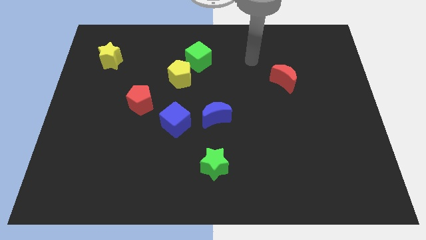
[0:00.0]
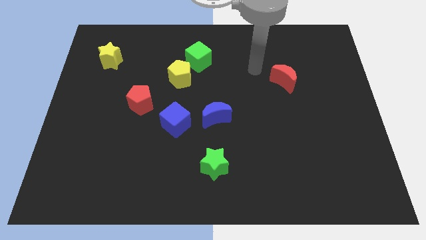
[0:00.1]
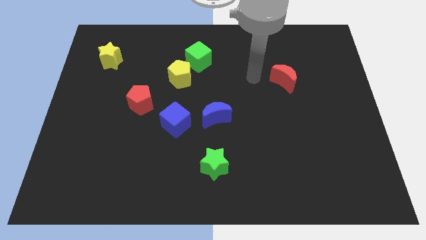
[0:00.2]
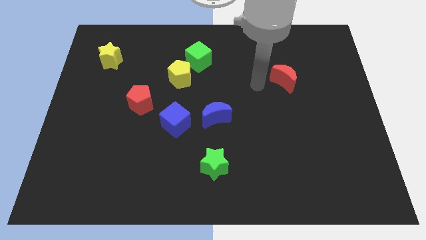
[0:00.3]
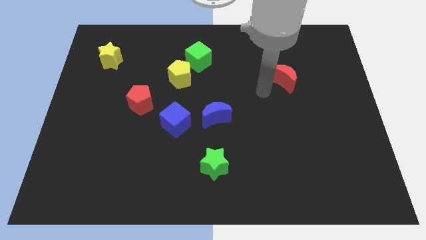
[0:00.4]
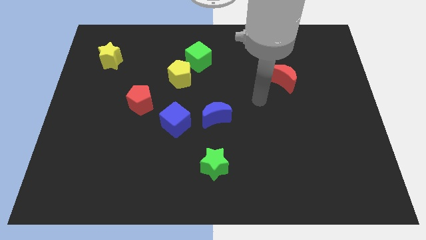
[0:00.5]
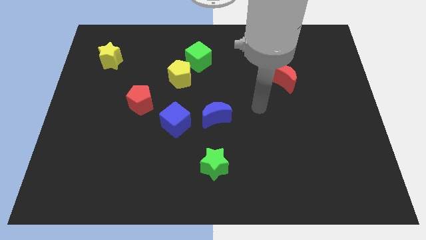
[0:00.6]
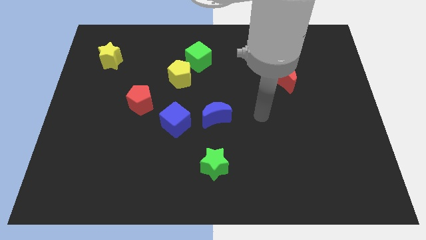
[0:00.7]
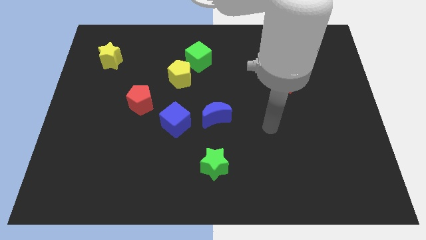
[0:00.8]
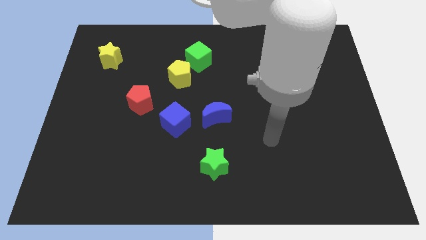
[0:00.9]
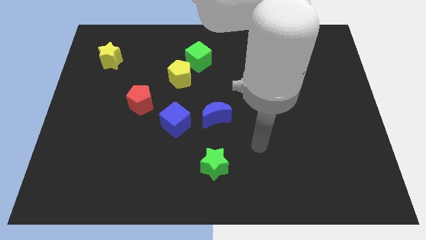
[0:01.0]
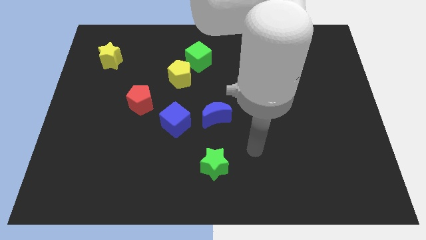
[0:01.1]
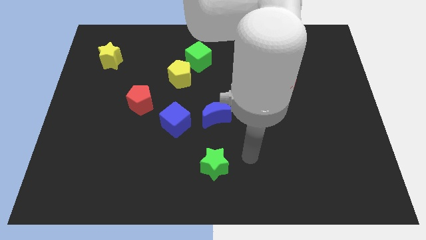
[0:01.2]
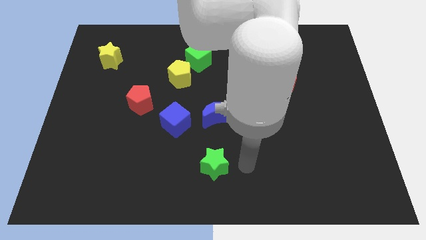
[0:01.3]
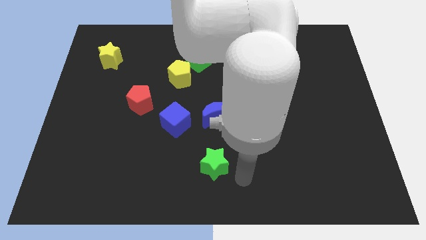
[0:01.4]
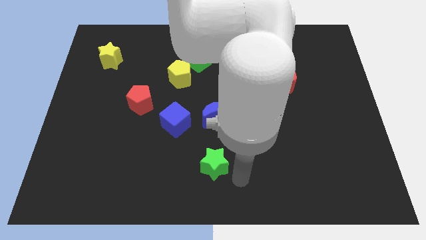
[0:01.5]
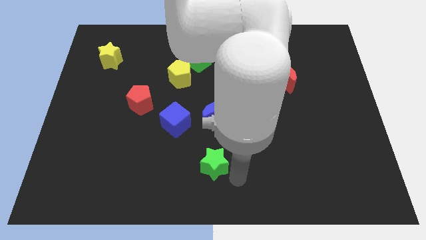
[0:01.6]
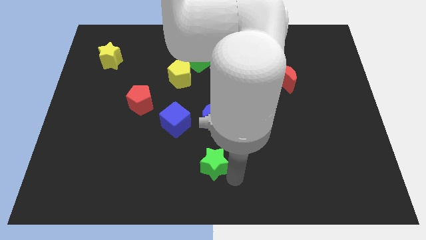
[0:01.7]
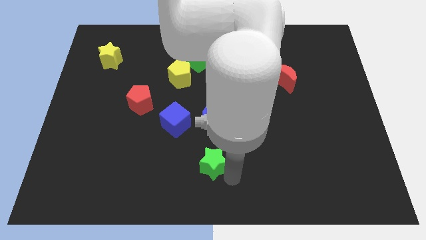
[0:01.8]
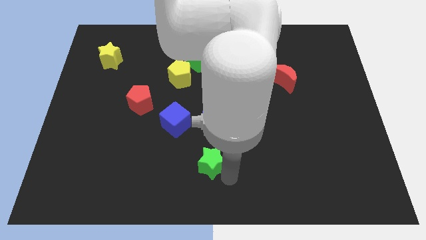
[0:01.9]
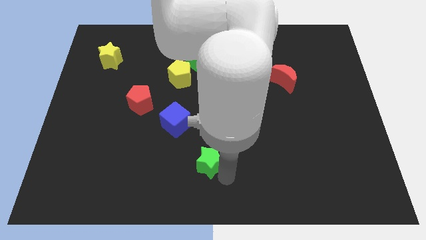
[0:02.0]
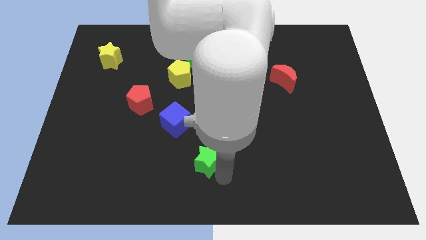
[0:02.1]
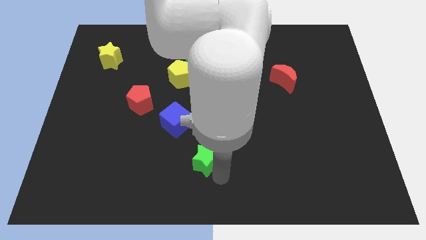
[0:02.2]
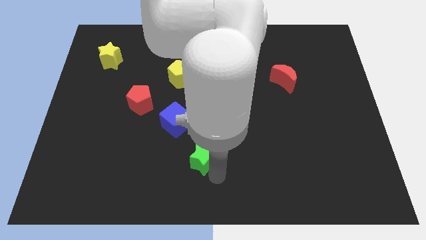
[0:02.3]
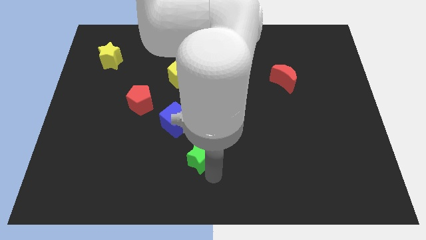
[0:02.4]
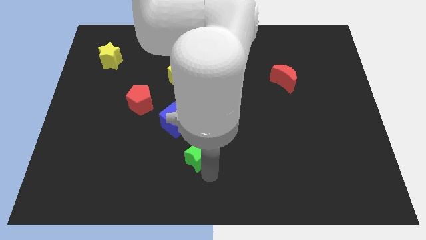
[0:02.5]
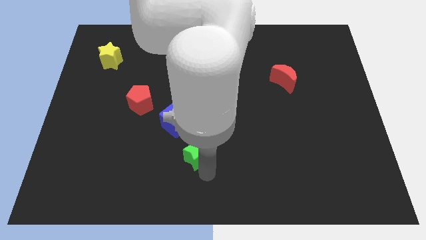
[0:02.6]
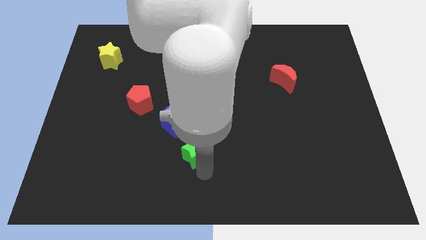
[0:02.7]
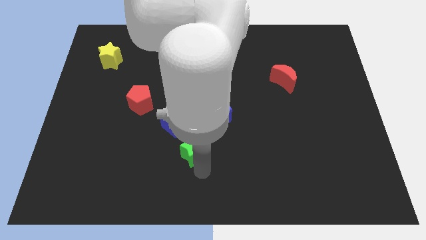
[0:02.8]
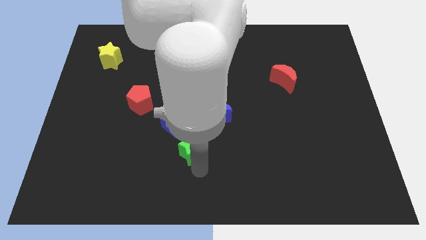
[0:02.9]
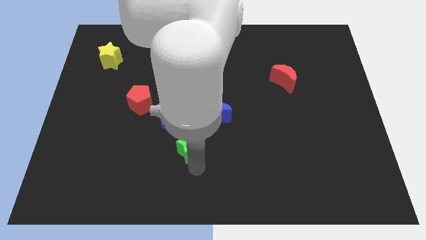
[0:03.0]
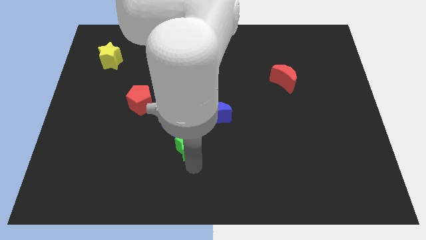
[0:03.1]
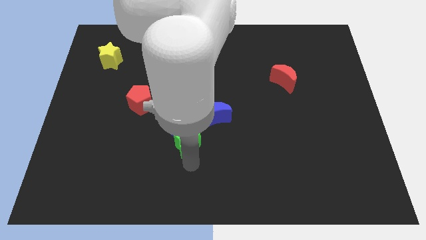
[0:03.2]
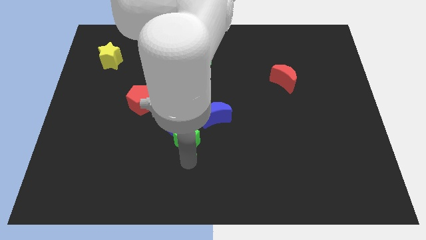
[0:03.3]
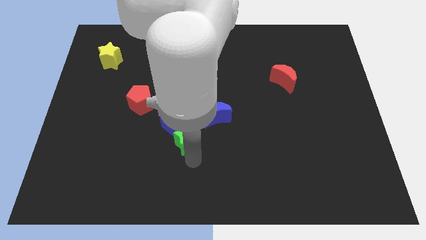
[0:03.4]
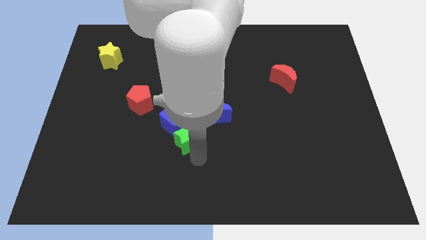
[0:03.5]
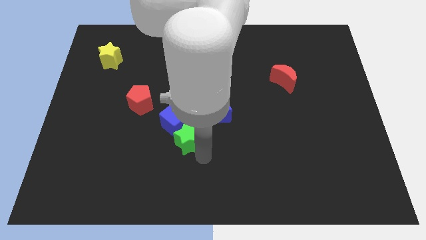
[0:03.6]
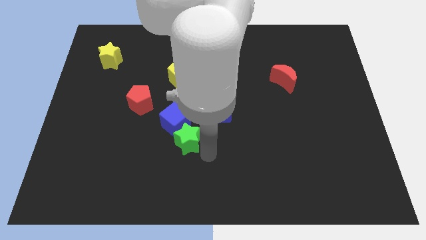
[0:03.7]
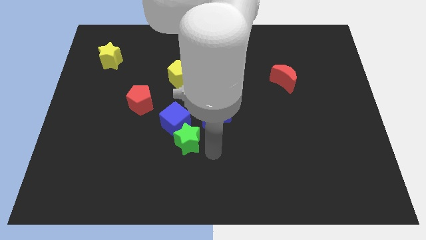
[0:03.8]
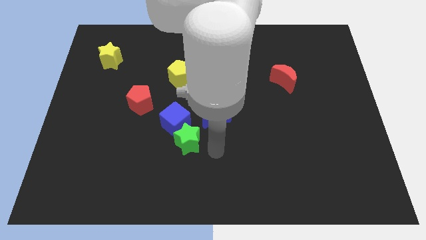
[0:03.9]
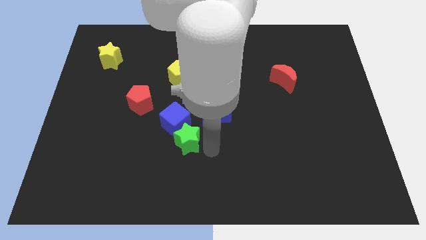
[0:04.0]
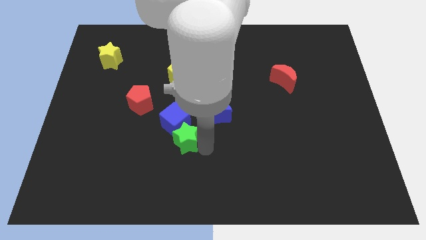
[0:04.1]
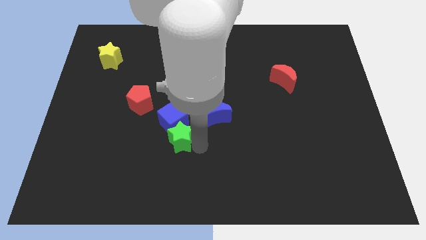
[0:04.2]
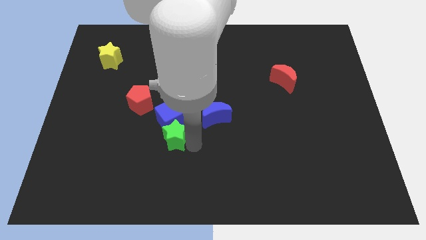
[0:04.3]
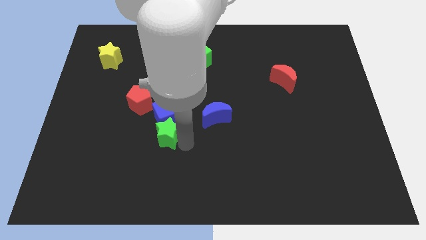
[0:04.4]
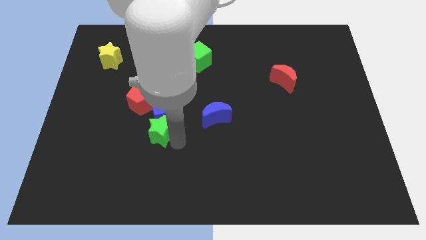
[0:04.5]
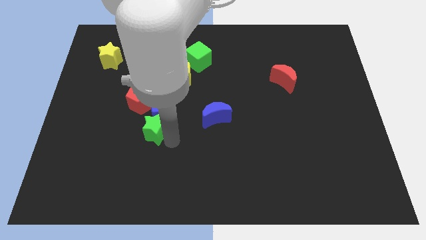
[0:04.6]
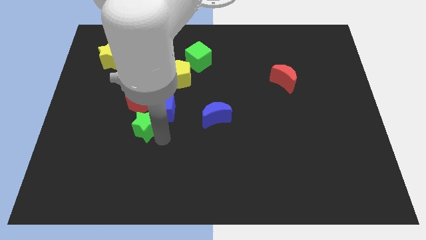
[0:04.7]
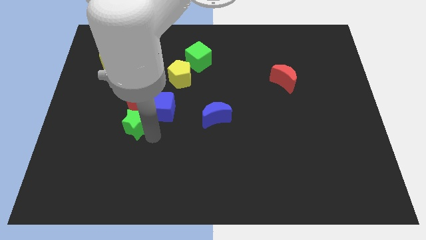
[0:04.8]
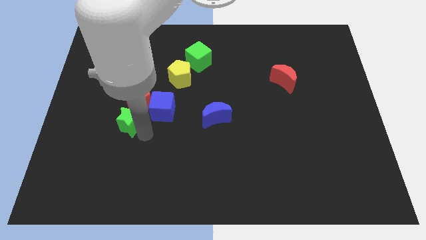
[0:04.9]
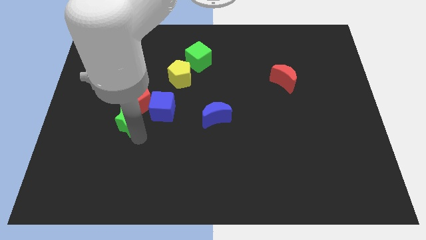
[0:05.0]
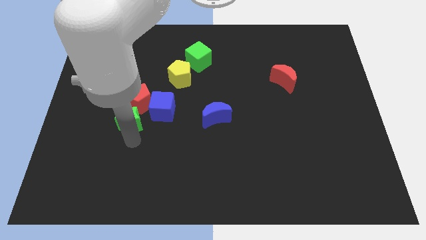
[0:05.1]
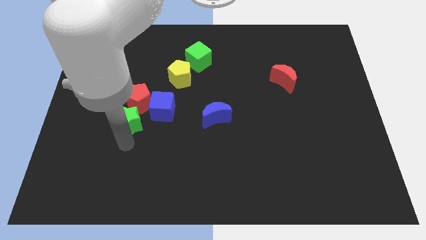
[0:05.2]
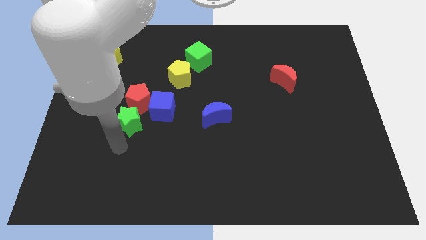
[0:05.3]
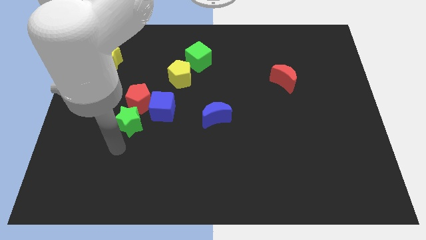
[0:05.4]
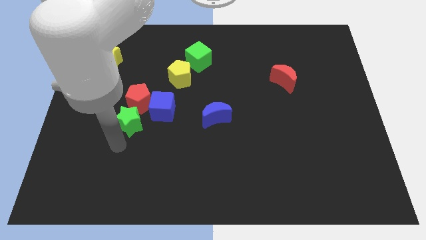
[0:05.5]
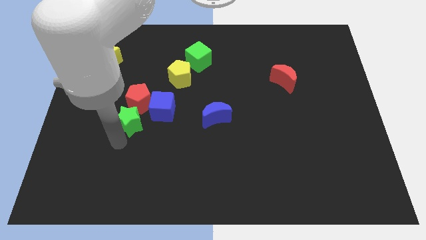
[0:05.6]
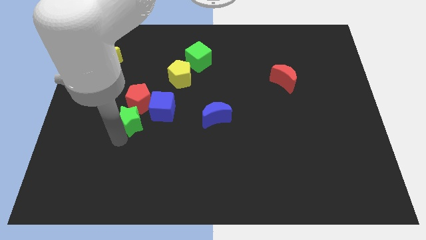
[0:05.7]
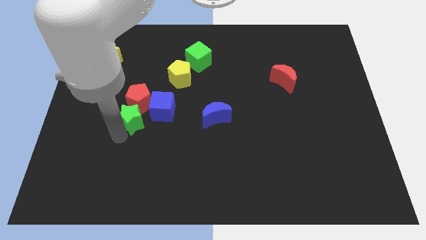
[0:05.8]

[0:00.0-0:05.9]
put the green star close to the red pentagon

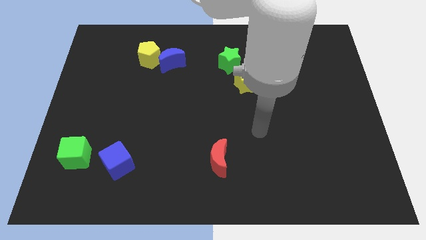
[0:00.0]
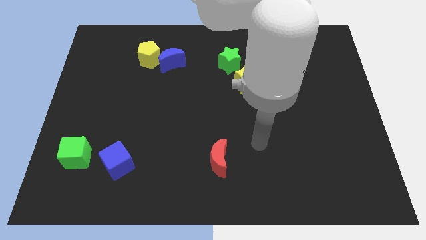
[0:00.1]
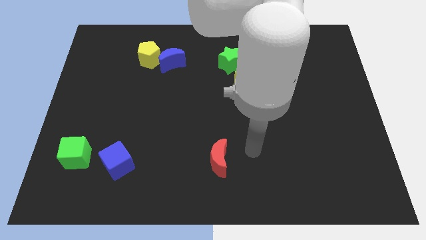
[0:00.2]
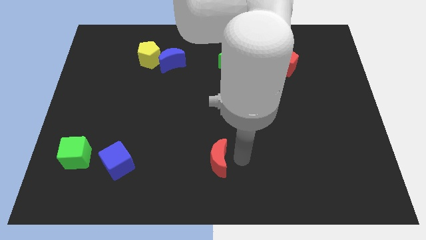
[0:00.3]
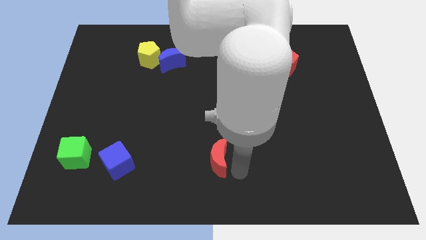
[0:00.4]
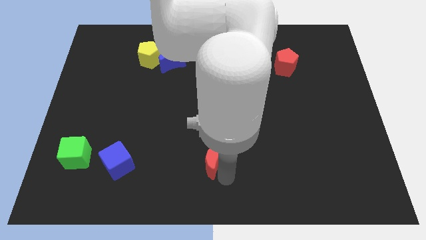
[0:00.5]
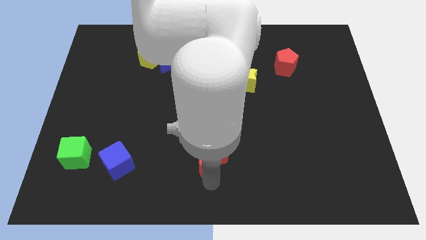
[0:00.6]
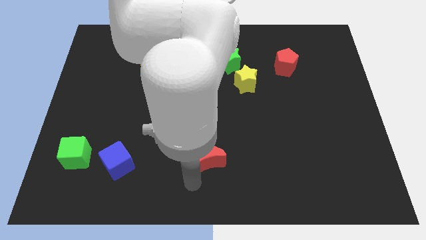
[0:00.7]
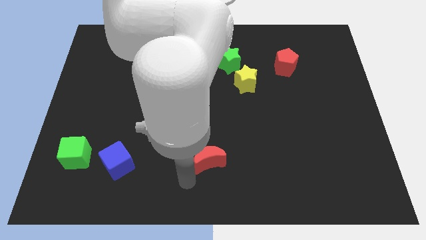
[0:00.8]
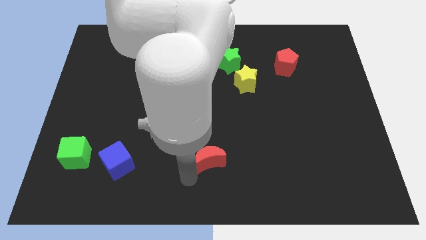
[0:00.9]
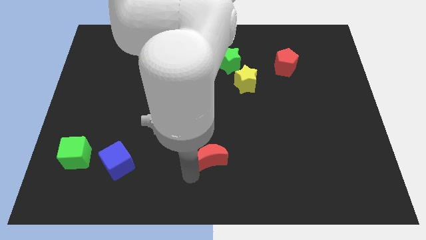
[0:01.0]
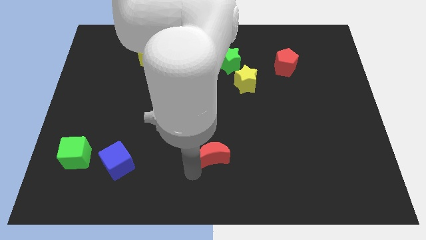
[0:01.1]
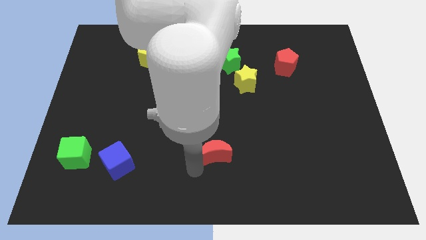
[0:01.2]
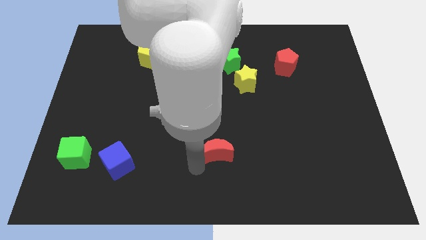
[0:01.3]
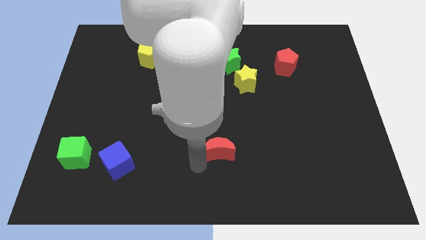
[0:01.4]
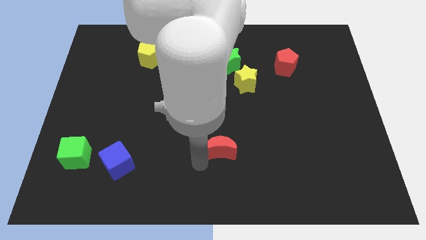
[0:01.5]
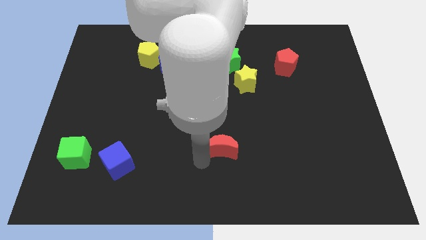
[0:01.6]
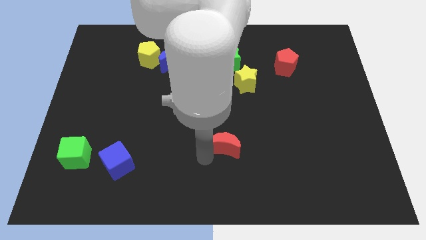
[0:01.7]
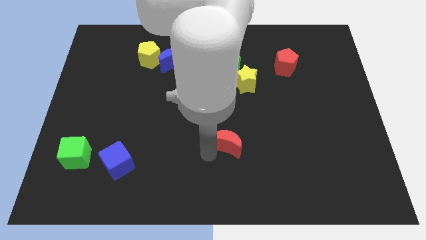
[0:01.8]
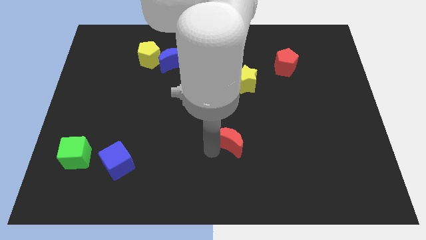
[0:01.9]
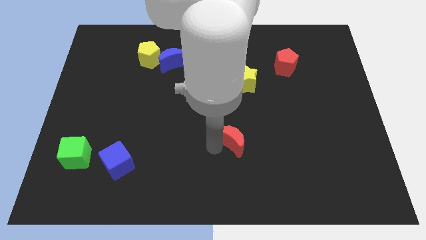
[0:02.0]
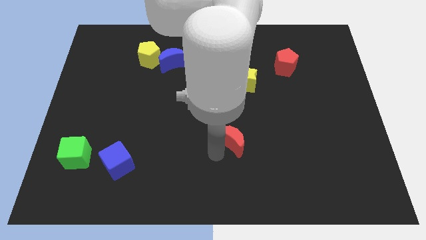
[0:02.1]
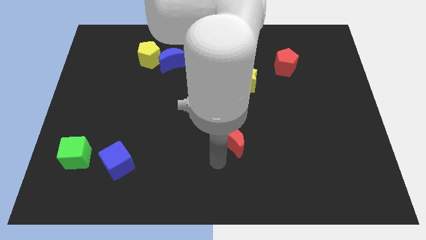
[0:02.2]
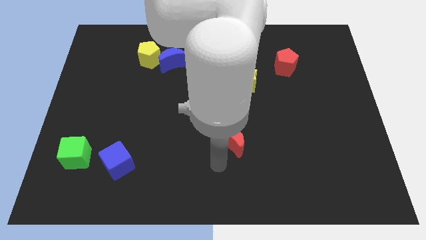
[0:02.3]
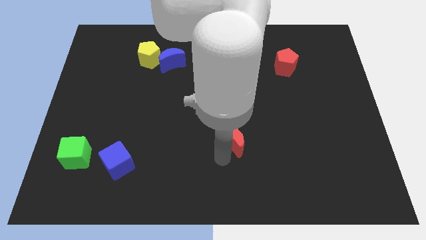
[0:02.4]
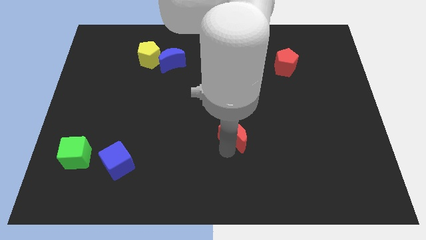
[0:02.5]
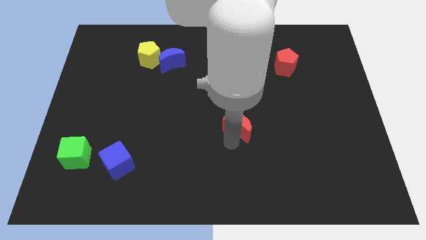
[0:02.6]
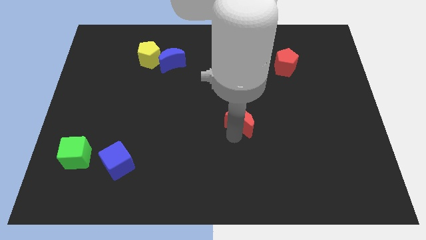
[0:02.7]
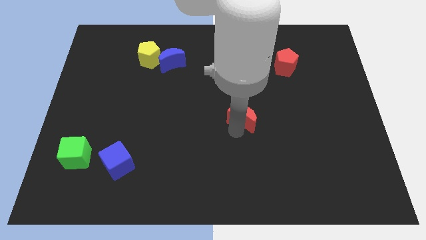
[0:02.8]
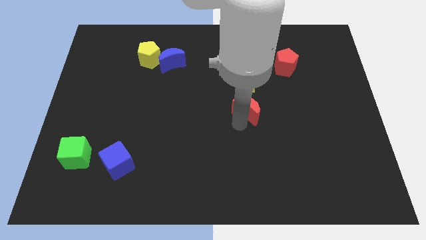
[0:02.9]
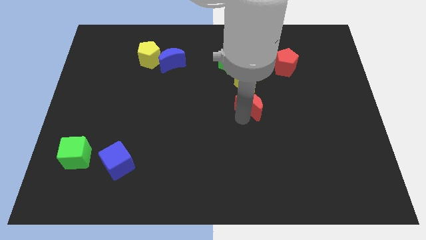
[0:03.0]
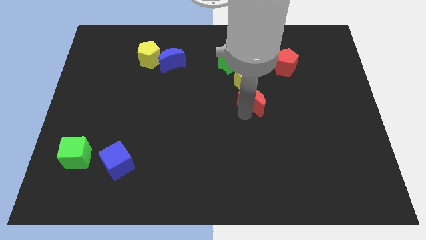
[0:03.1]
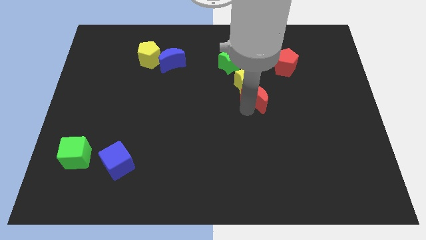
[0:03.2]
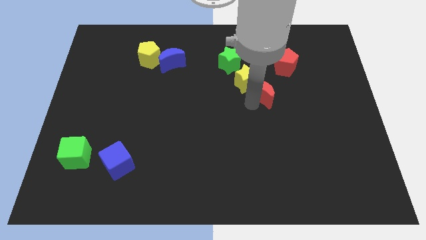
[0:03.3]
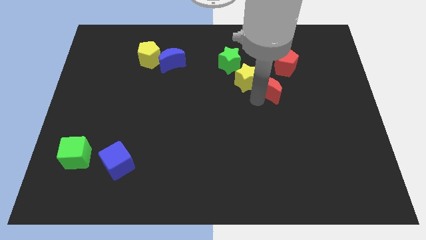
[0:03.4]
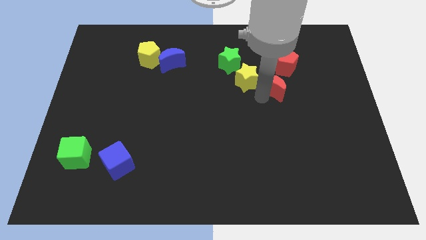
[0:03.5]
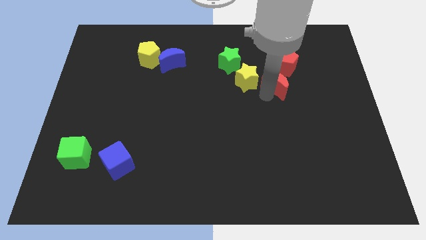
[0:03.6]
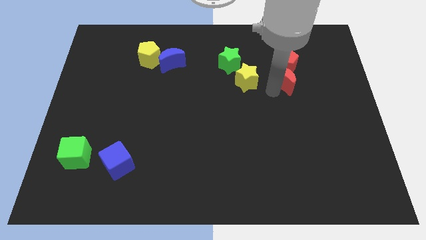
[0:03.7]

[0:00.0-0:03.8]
push the red moon next to the red pentagon
